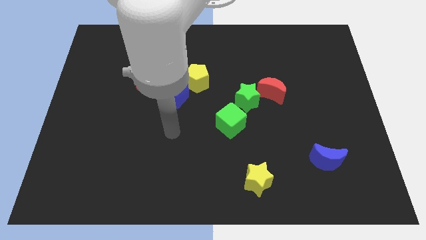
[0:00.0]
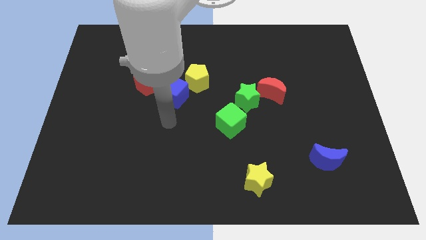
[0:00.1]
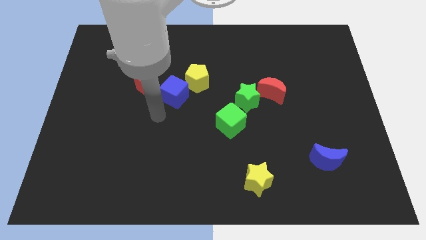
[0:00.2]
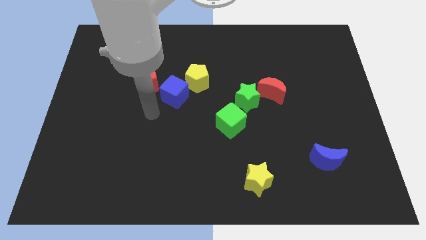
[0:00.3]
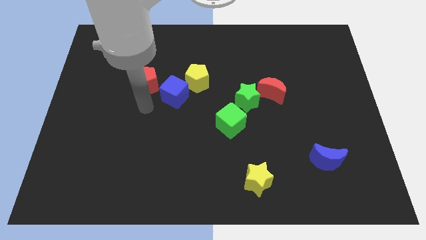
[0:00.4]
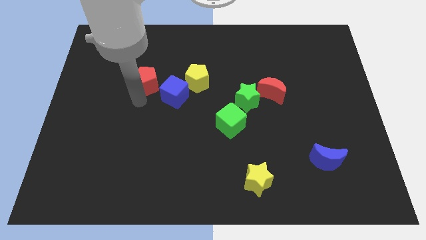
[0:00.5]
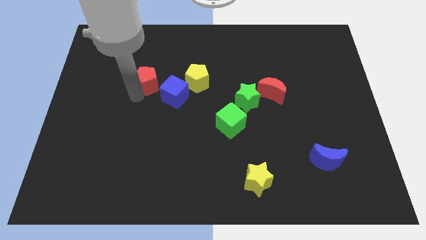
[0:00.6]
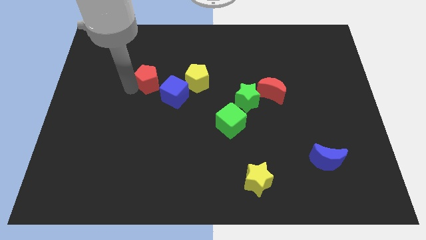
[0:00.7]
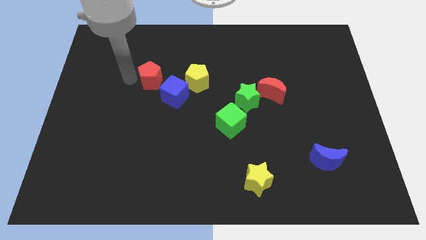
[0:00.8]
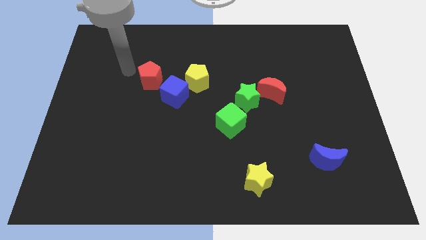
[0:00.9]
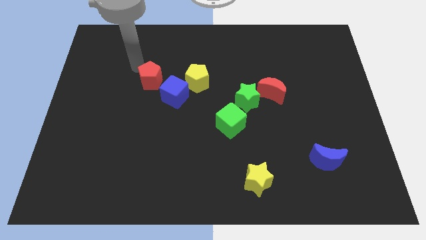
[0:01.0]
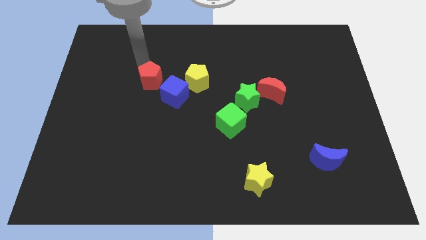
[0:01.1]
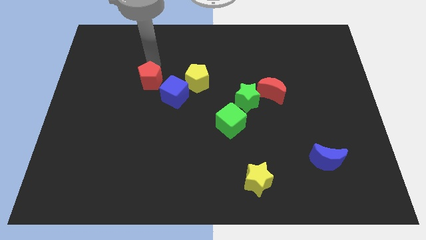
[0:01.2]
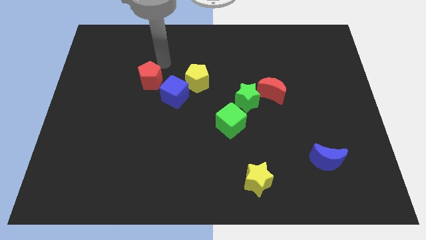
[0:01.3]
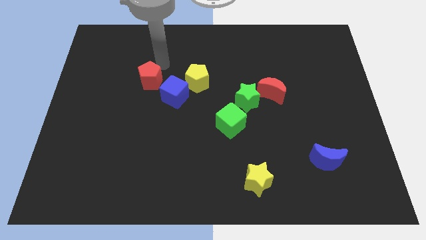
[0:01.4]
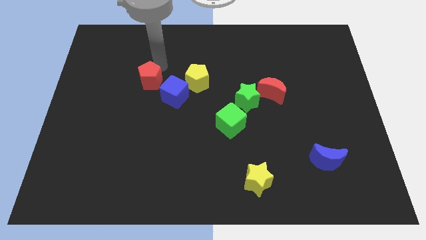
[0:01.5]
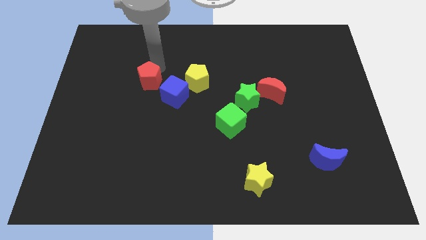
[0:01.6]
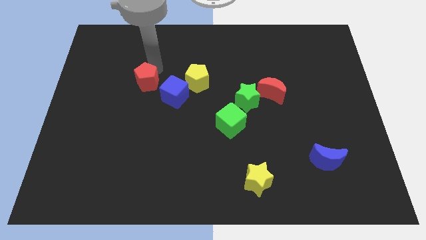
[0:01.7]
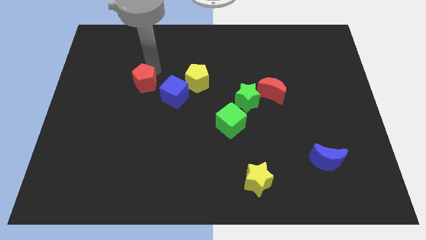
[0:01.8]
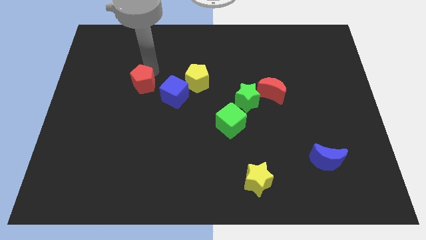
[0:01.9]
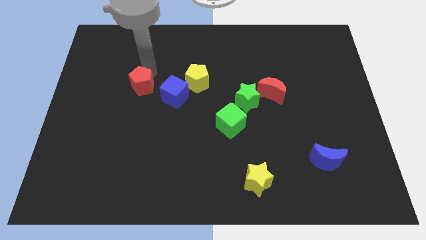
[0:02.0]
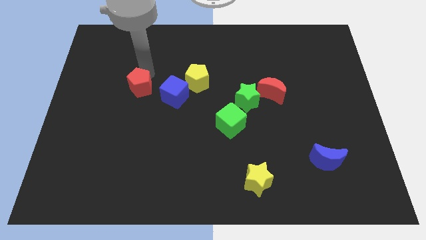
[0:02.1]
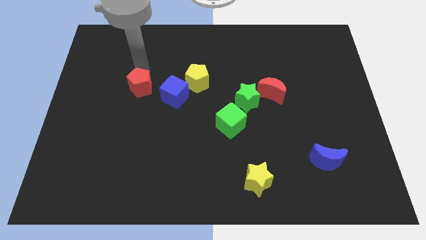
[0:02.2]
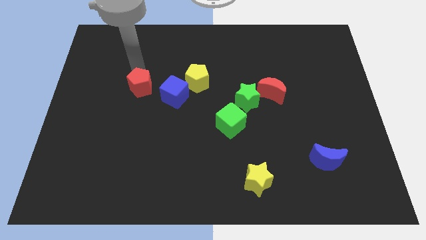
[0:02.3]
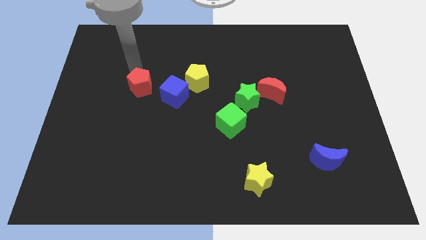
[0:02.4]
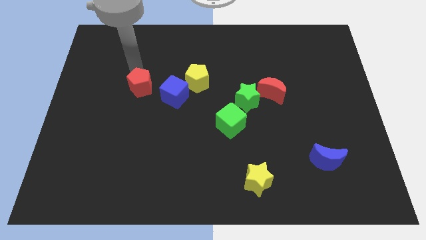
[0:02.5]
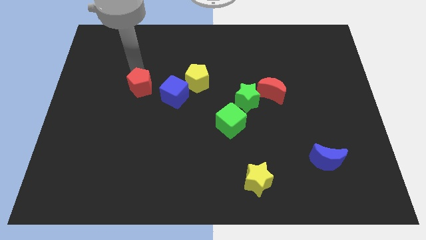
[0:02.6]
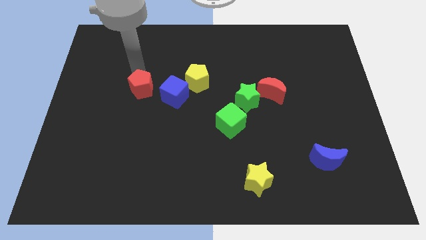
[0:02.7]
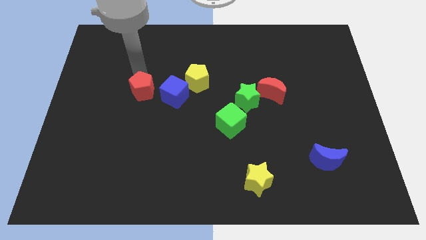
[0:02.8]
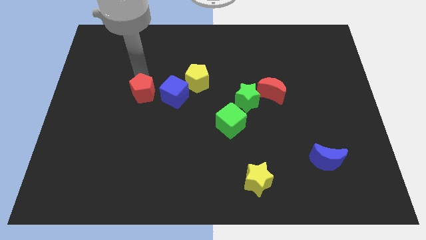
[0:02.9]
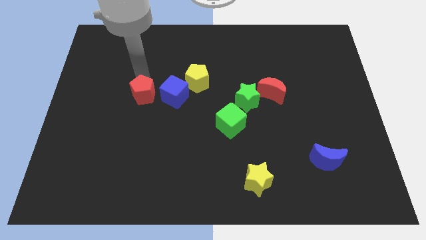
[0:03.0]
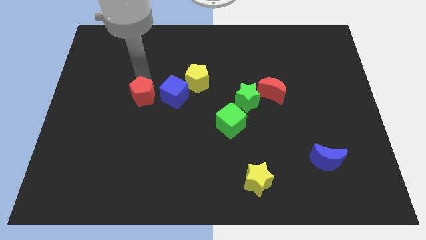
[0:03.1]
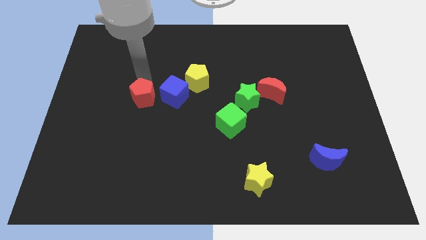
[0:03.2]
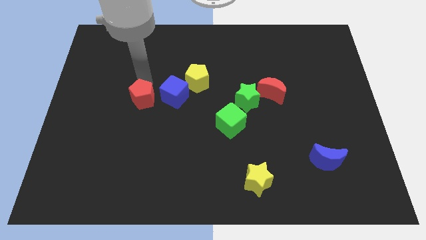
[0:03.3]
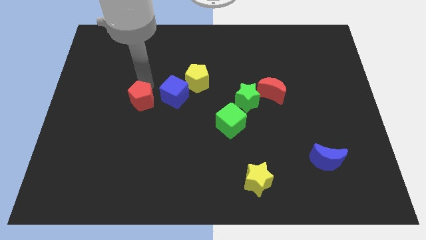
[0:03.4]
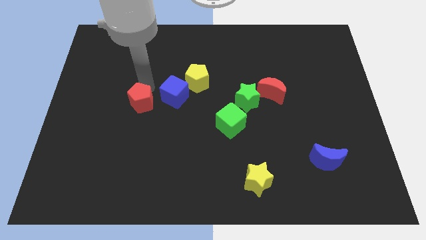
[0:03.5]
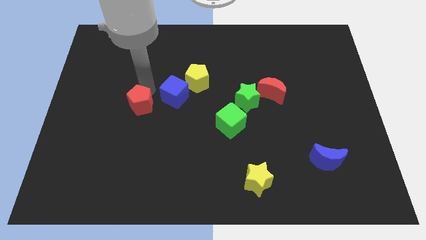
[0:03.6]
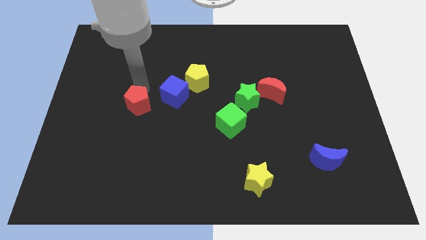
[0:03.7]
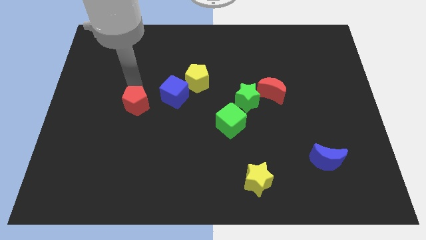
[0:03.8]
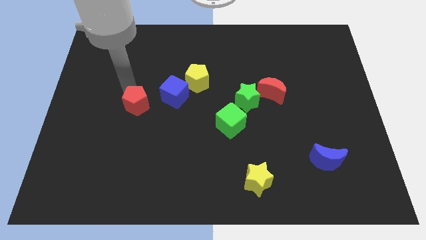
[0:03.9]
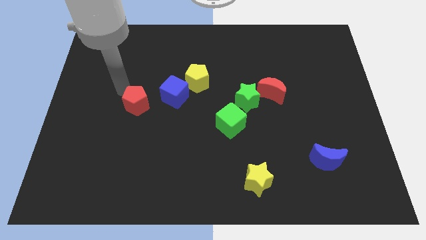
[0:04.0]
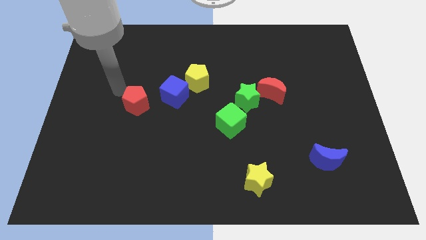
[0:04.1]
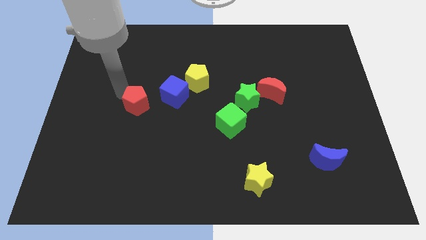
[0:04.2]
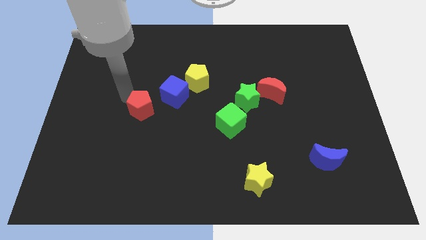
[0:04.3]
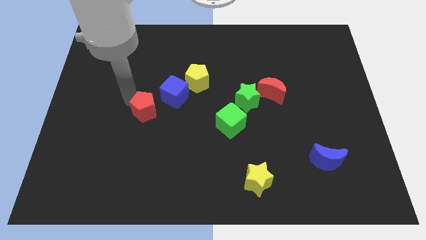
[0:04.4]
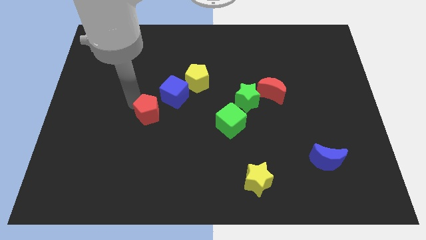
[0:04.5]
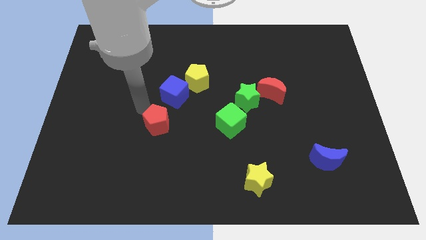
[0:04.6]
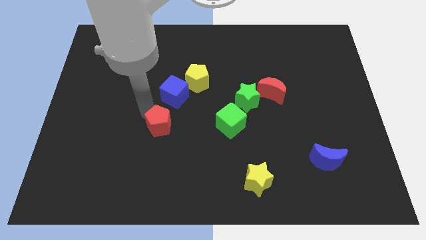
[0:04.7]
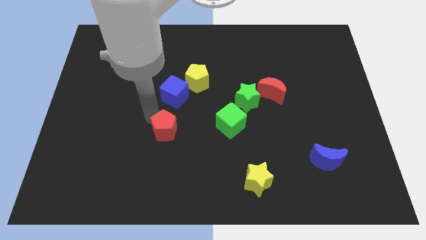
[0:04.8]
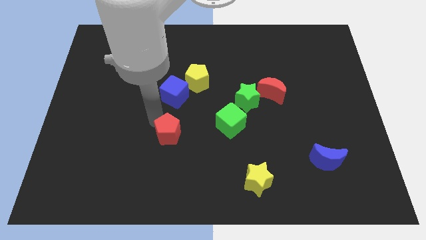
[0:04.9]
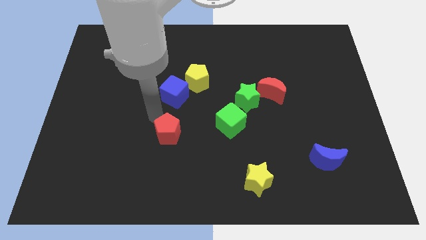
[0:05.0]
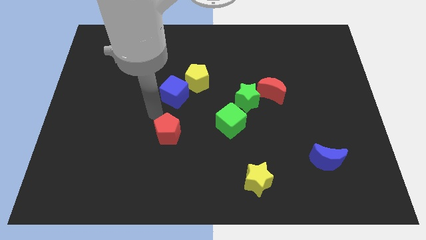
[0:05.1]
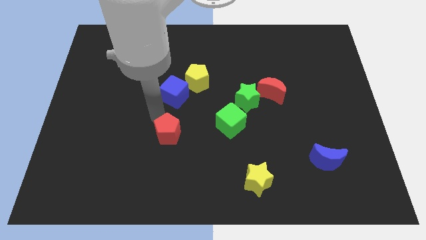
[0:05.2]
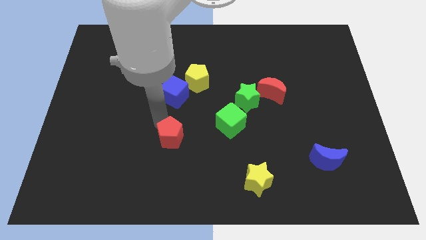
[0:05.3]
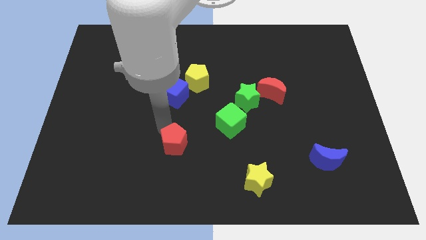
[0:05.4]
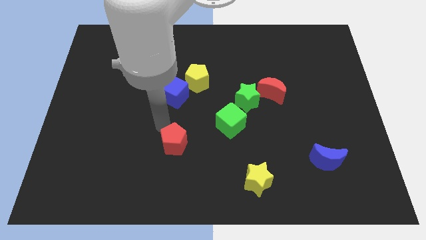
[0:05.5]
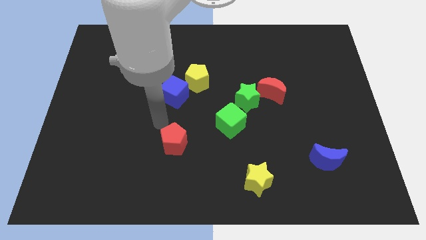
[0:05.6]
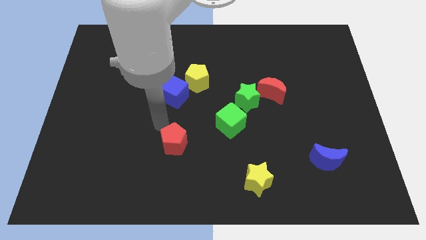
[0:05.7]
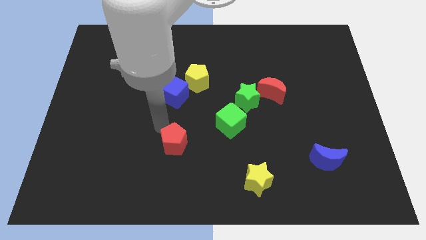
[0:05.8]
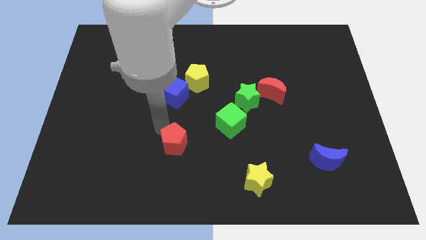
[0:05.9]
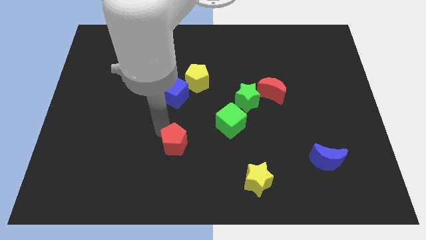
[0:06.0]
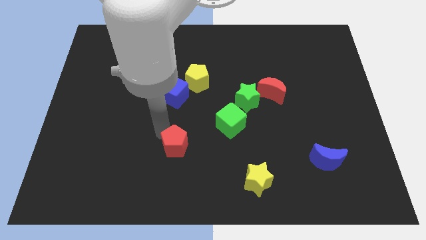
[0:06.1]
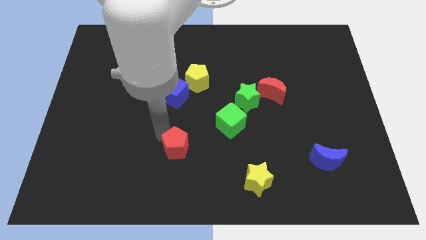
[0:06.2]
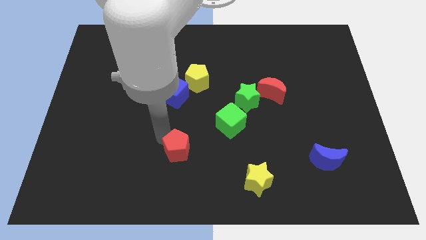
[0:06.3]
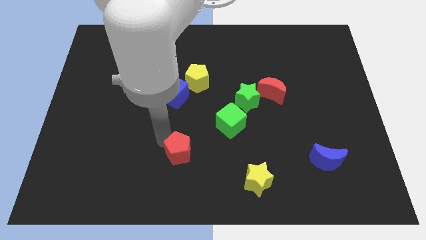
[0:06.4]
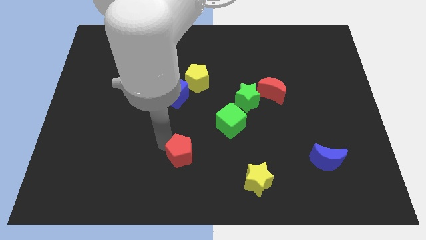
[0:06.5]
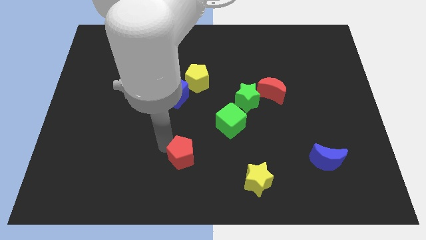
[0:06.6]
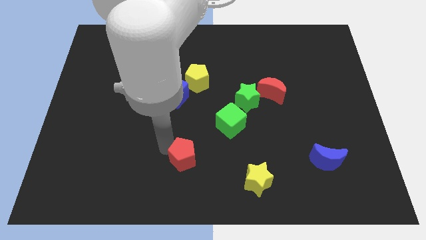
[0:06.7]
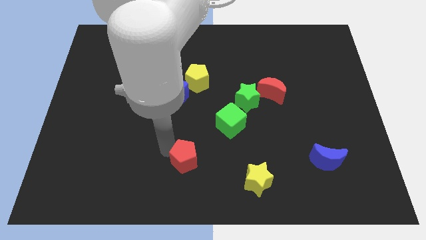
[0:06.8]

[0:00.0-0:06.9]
put the red pentagon to the bottom side

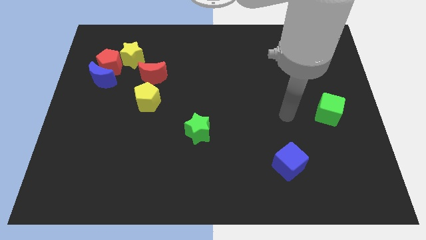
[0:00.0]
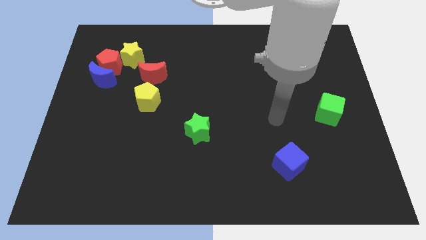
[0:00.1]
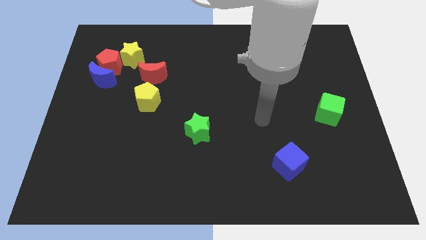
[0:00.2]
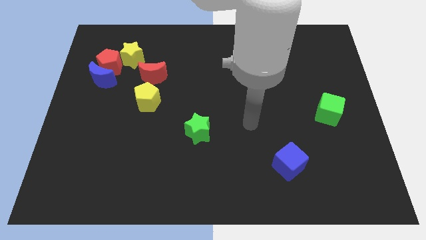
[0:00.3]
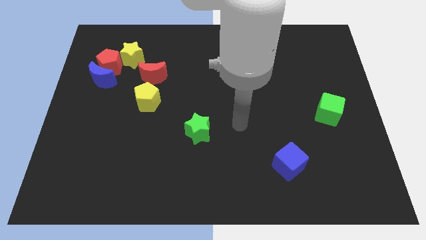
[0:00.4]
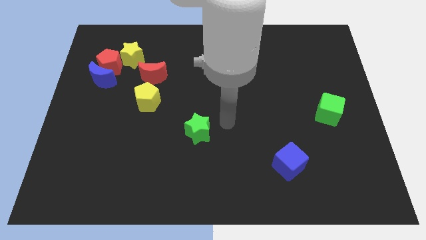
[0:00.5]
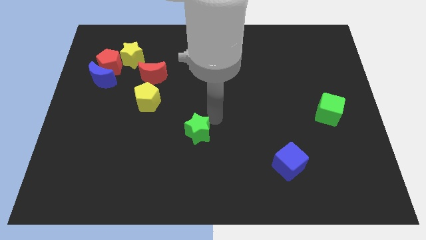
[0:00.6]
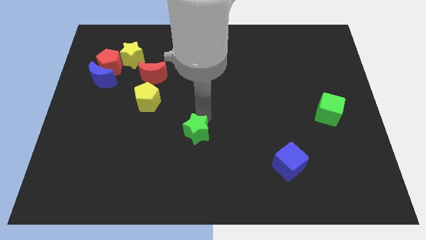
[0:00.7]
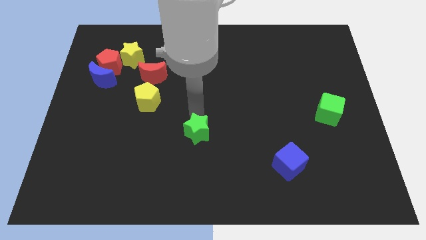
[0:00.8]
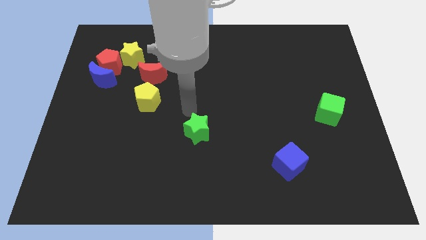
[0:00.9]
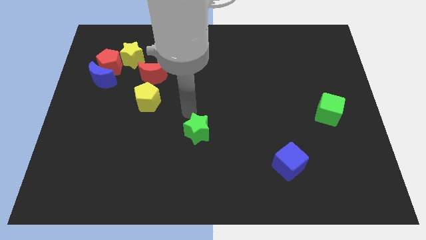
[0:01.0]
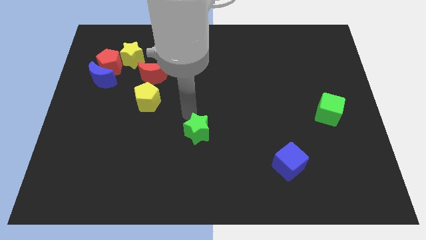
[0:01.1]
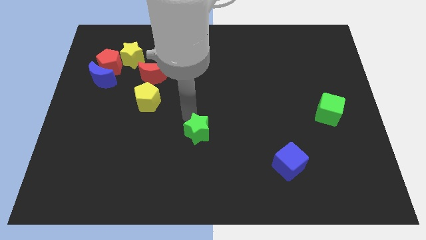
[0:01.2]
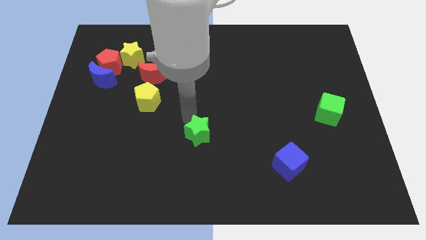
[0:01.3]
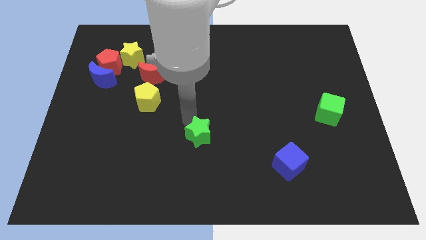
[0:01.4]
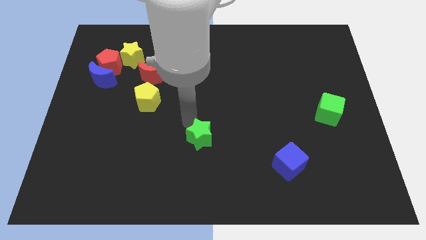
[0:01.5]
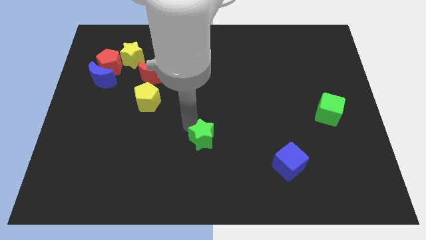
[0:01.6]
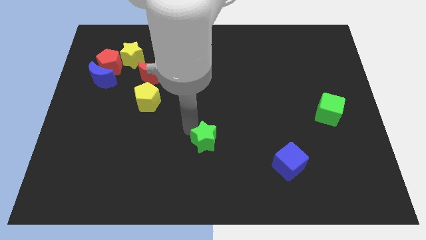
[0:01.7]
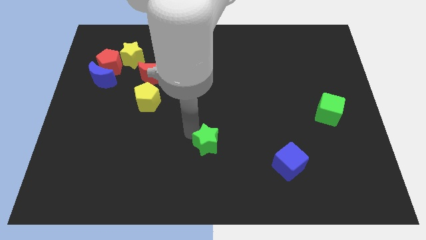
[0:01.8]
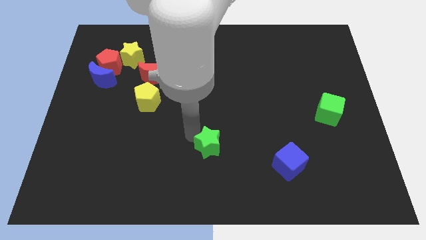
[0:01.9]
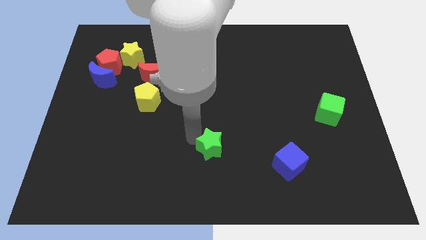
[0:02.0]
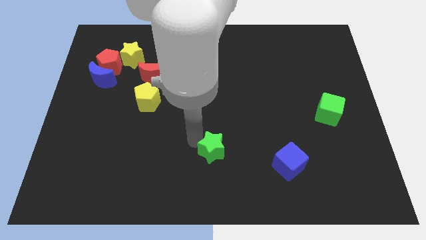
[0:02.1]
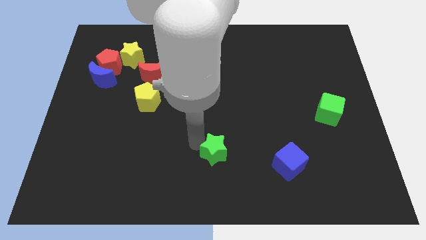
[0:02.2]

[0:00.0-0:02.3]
push the green star to the bottom
